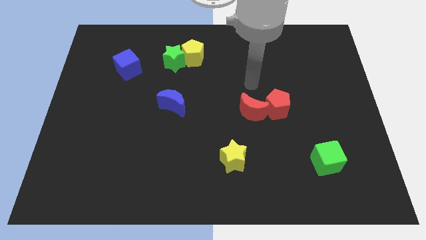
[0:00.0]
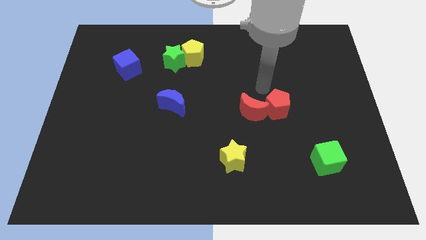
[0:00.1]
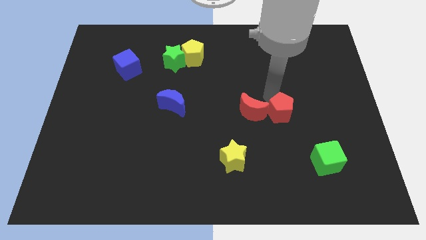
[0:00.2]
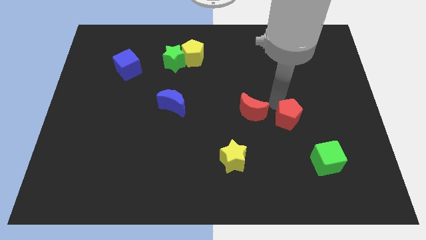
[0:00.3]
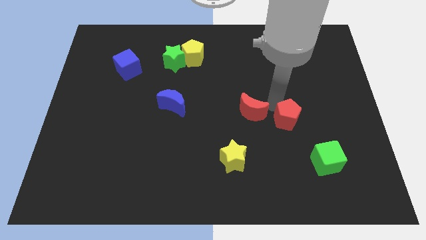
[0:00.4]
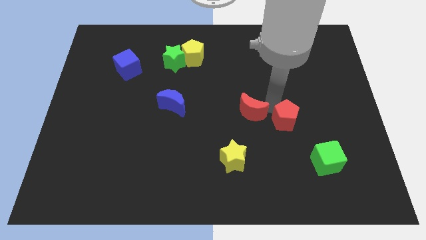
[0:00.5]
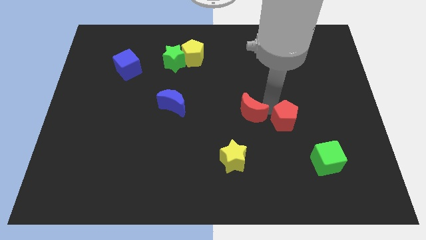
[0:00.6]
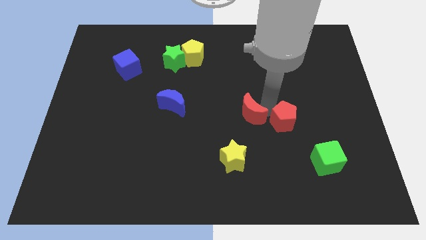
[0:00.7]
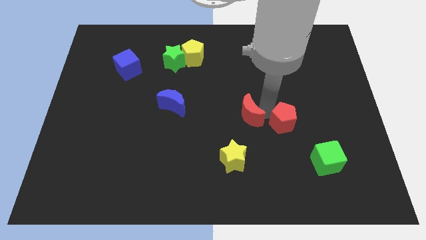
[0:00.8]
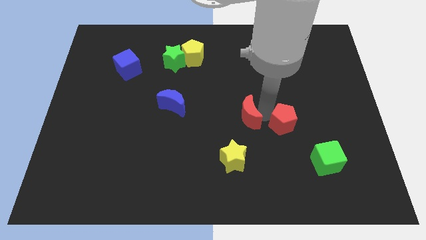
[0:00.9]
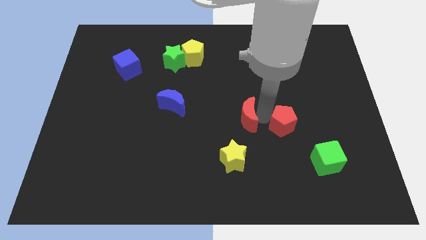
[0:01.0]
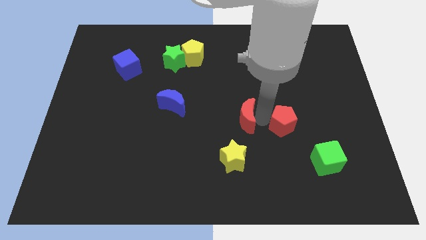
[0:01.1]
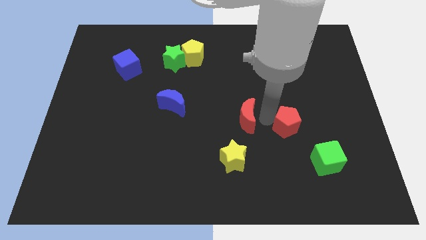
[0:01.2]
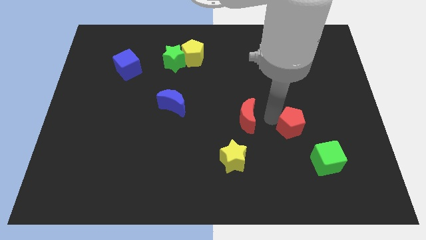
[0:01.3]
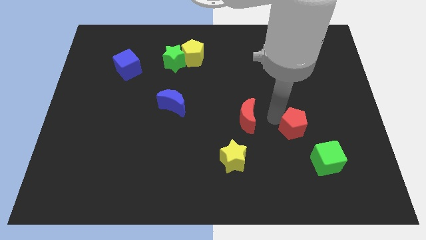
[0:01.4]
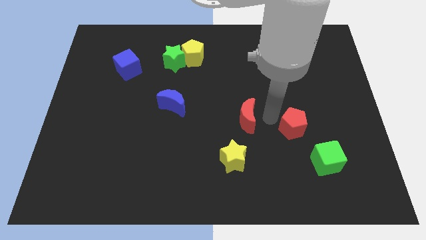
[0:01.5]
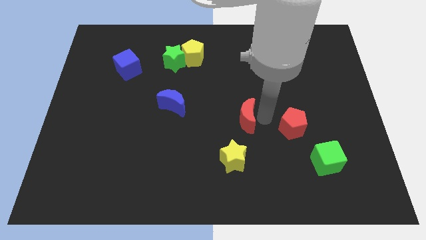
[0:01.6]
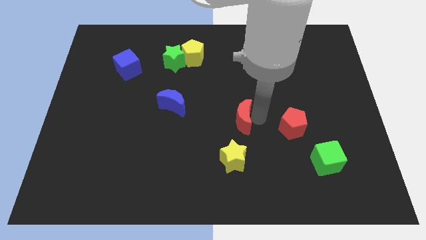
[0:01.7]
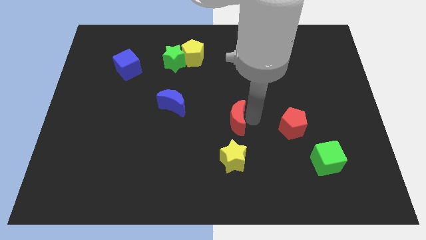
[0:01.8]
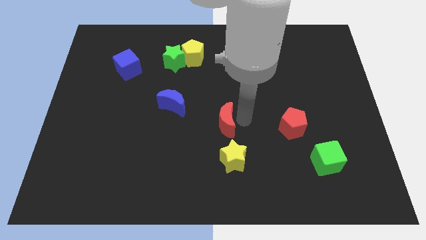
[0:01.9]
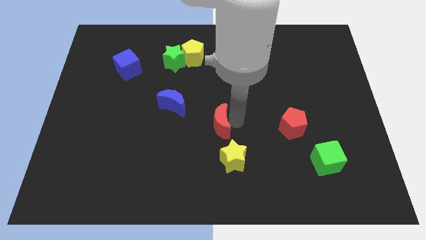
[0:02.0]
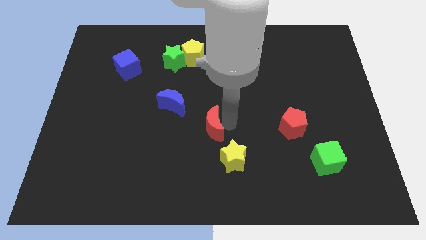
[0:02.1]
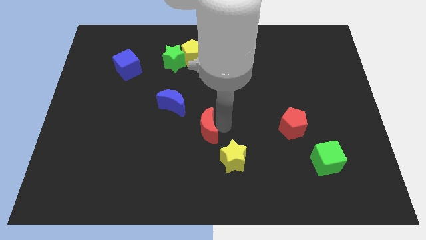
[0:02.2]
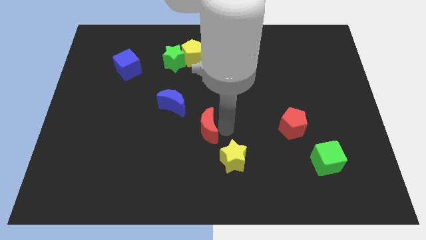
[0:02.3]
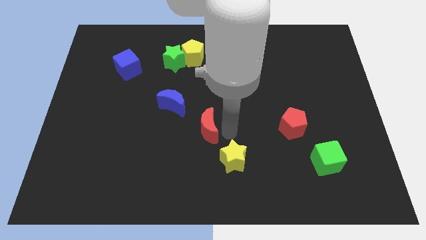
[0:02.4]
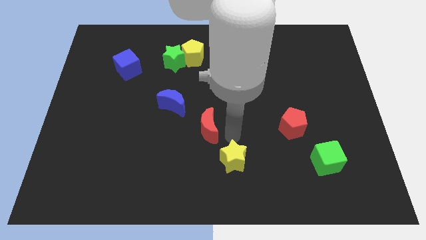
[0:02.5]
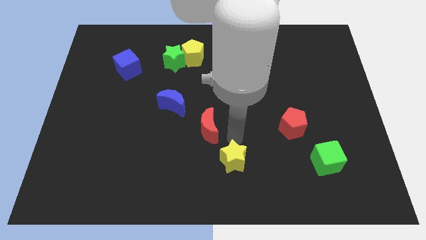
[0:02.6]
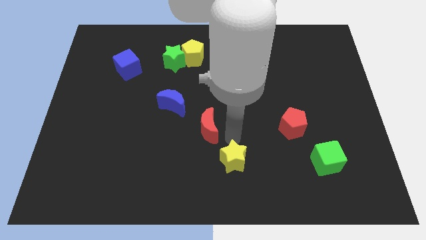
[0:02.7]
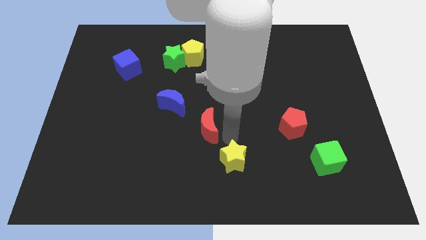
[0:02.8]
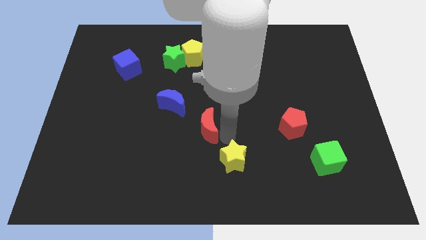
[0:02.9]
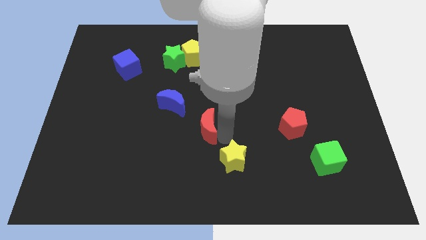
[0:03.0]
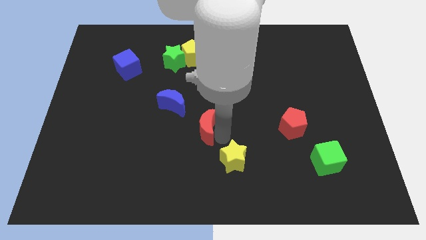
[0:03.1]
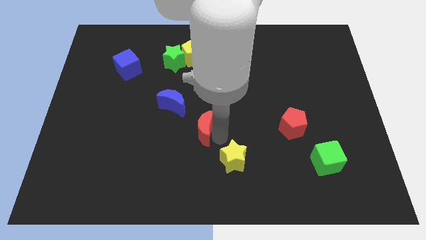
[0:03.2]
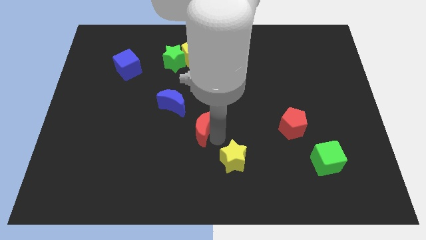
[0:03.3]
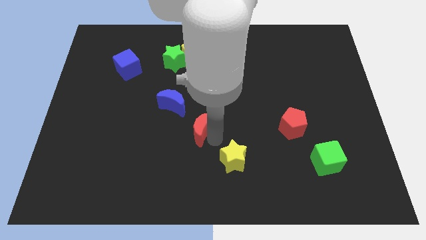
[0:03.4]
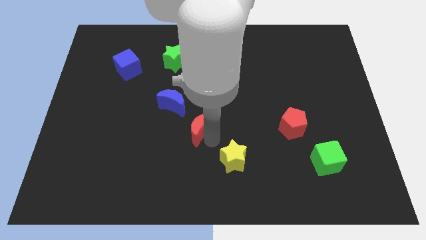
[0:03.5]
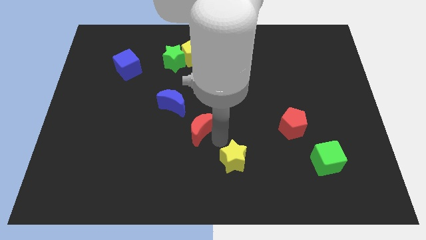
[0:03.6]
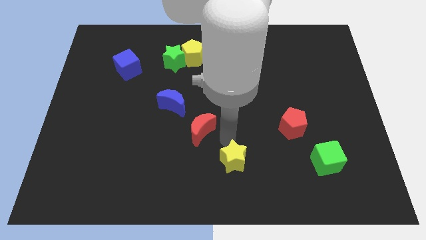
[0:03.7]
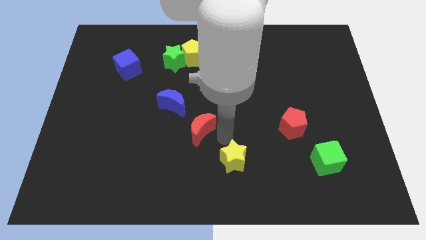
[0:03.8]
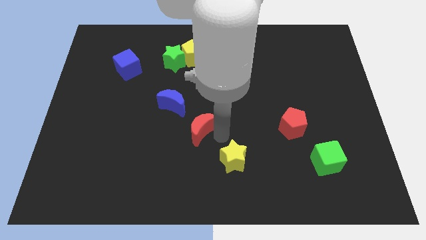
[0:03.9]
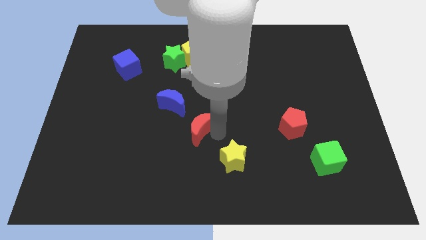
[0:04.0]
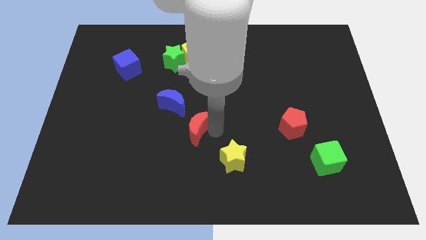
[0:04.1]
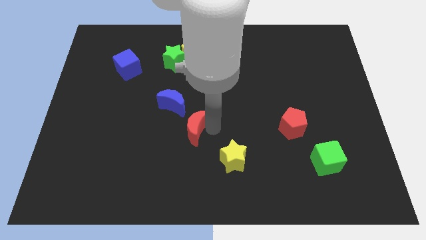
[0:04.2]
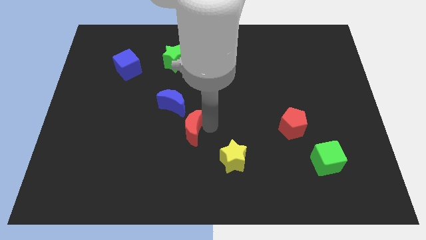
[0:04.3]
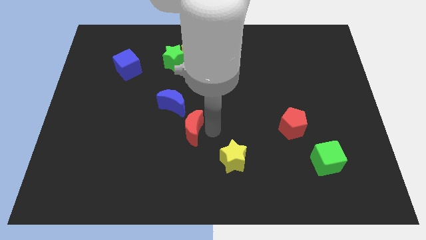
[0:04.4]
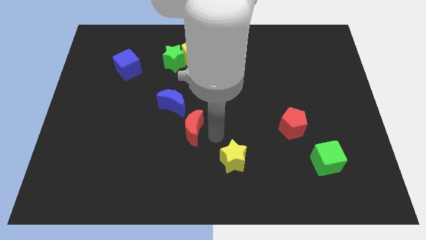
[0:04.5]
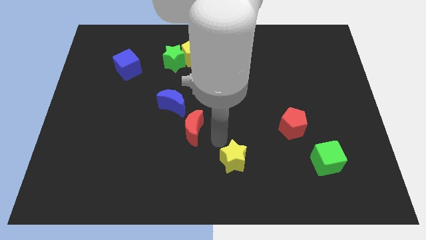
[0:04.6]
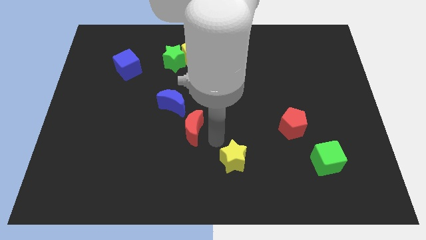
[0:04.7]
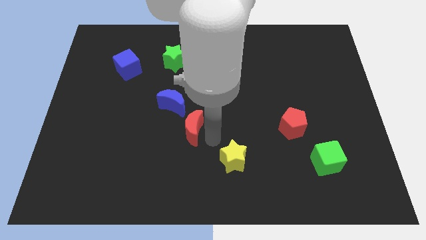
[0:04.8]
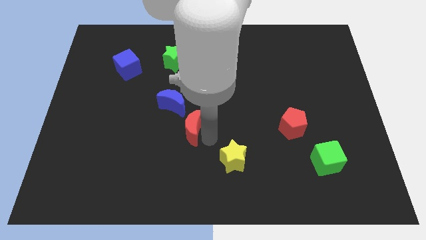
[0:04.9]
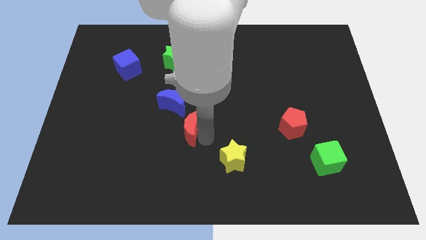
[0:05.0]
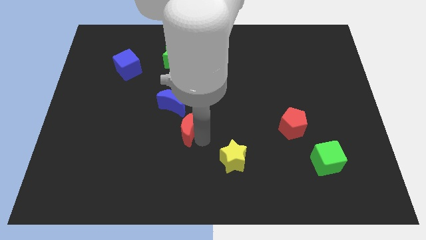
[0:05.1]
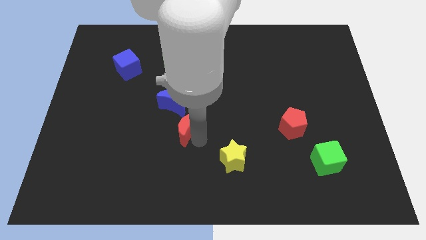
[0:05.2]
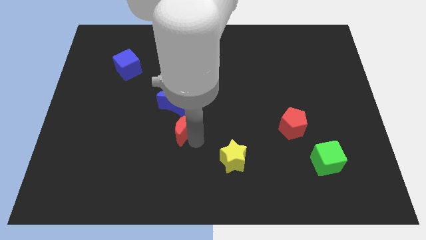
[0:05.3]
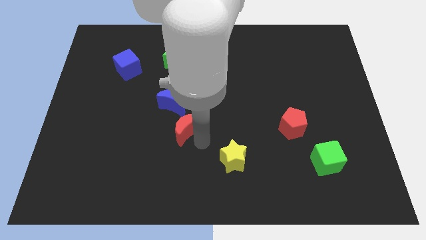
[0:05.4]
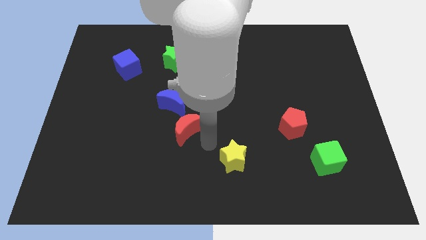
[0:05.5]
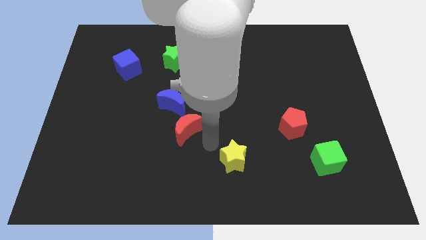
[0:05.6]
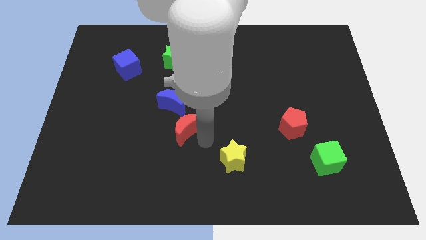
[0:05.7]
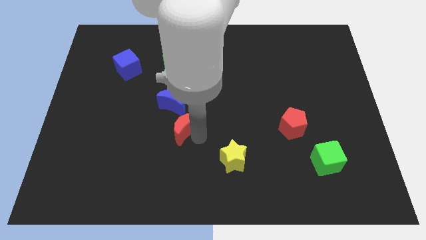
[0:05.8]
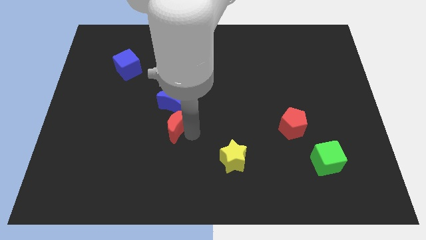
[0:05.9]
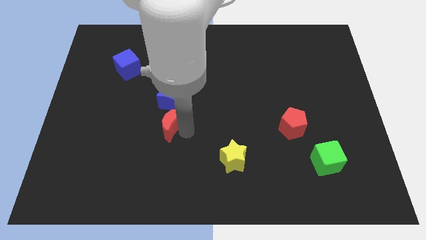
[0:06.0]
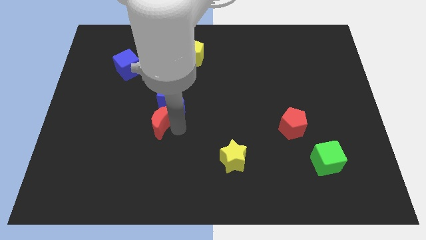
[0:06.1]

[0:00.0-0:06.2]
move the red moon to the left

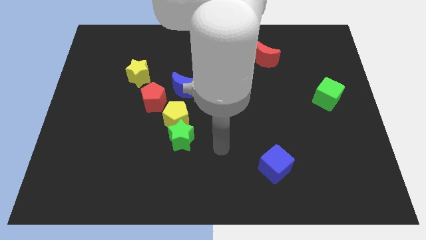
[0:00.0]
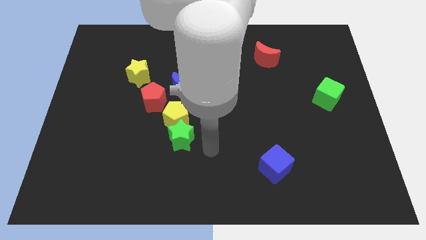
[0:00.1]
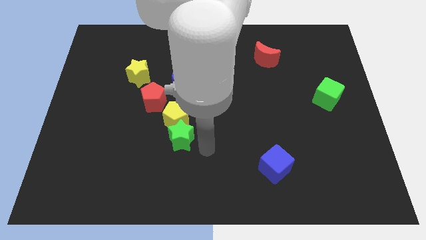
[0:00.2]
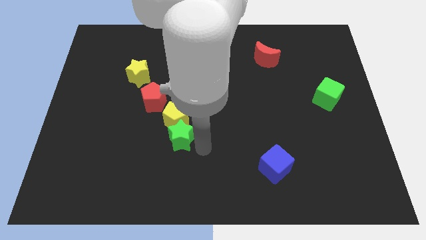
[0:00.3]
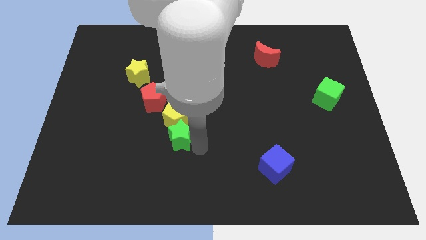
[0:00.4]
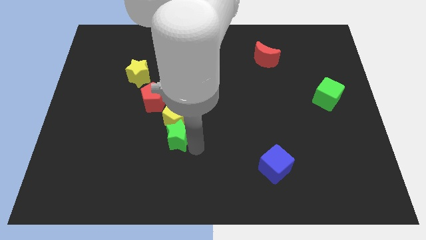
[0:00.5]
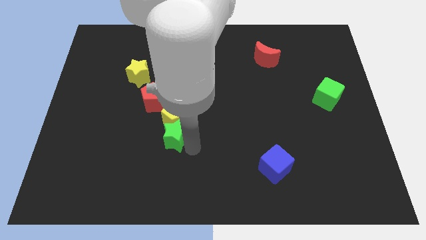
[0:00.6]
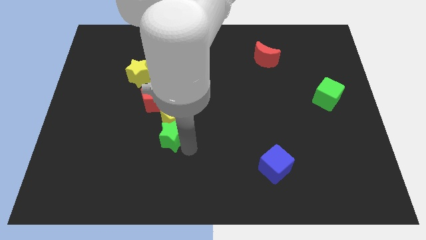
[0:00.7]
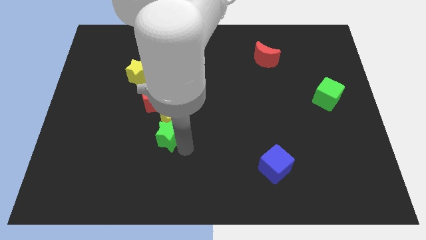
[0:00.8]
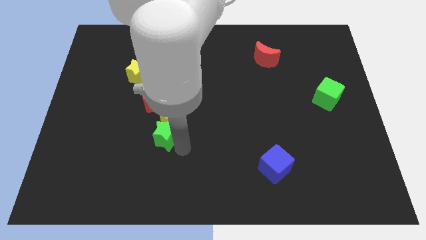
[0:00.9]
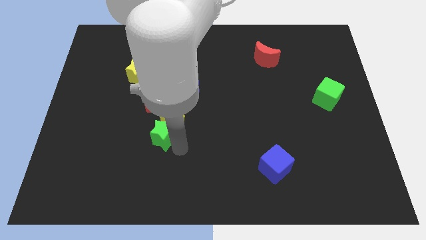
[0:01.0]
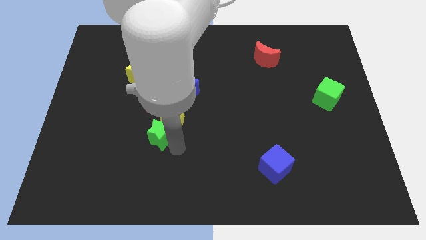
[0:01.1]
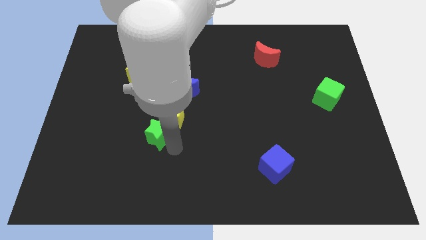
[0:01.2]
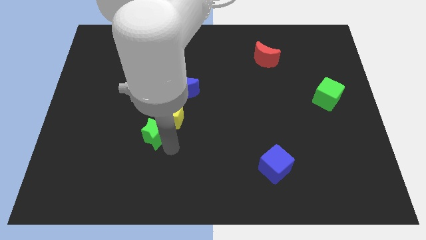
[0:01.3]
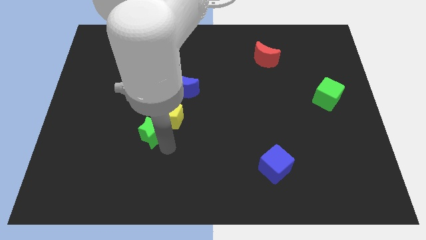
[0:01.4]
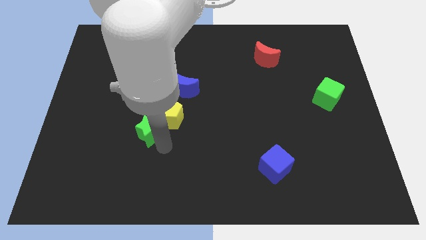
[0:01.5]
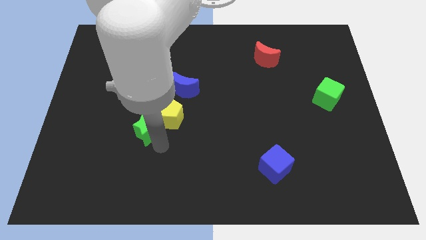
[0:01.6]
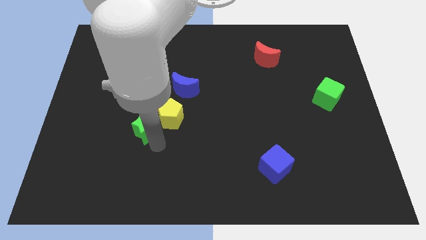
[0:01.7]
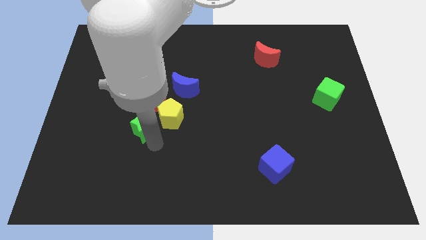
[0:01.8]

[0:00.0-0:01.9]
move the green star a bit upwards and to the left
